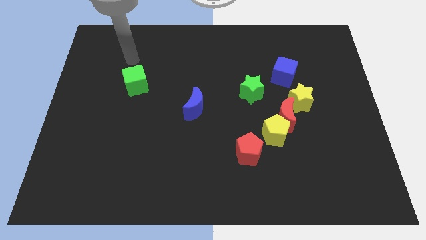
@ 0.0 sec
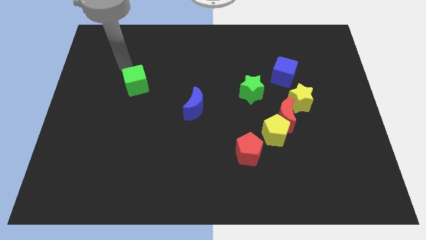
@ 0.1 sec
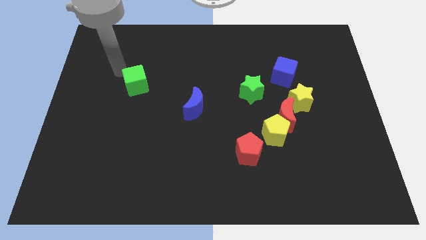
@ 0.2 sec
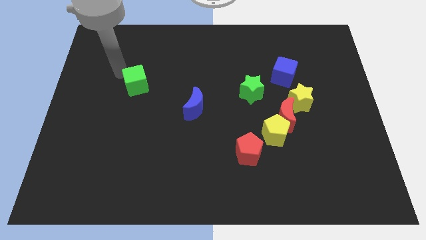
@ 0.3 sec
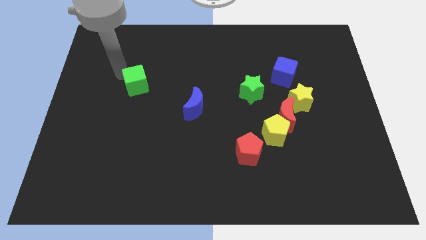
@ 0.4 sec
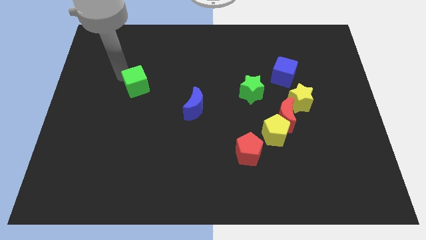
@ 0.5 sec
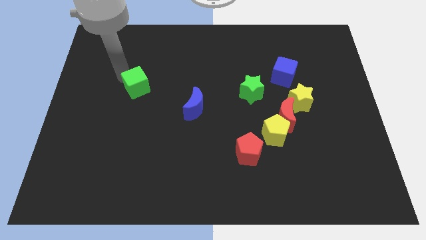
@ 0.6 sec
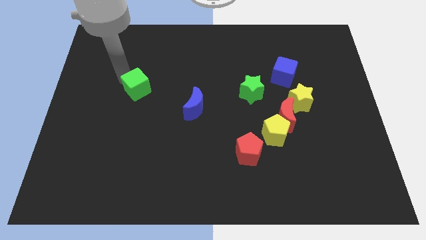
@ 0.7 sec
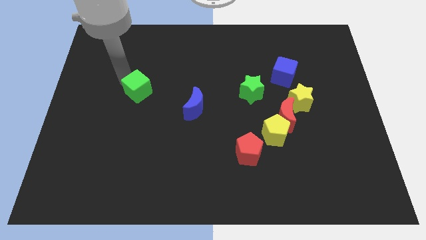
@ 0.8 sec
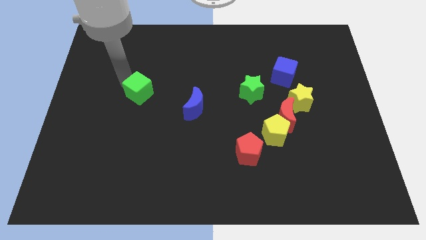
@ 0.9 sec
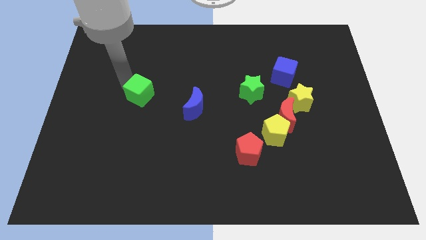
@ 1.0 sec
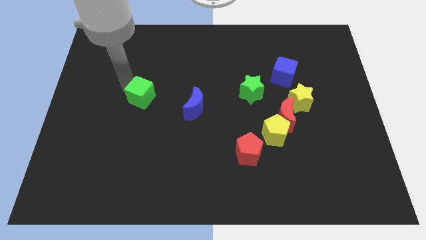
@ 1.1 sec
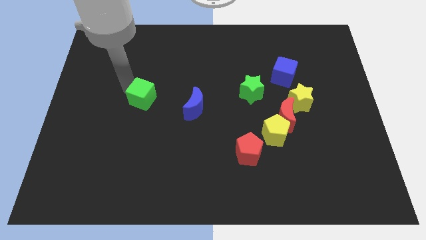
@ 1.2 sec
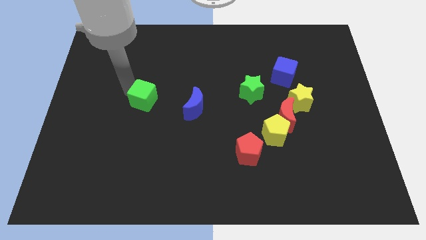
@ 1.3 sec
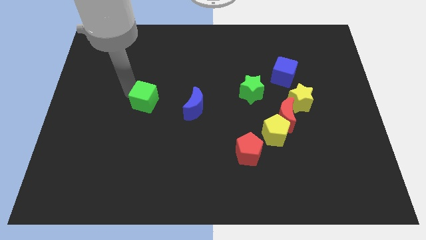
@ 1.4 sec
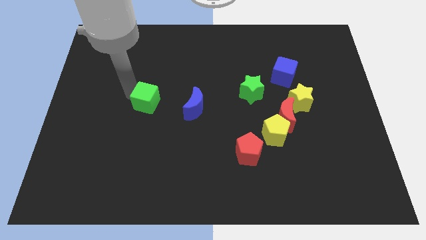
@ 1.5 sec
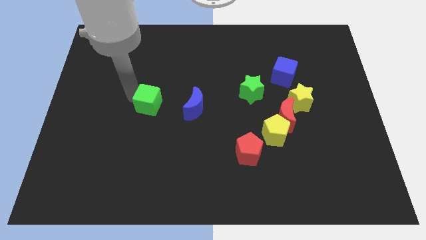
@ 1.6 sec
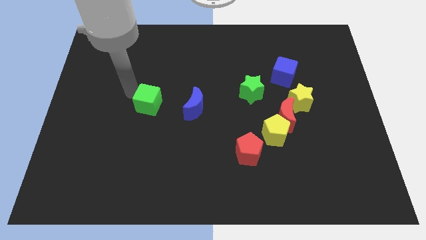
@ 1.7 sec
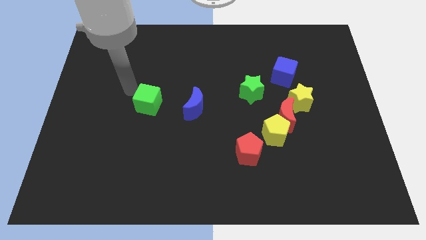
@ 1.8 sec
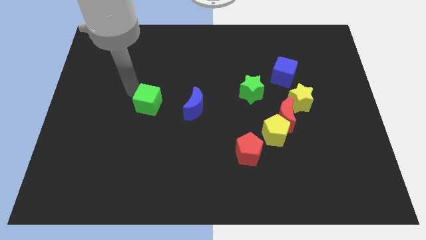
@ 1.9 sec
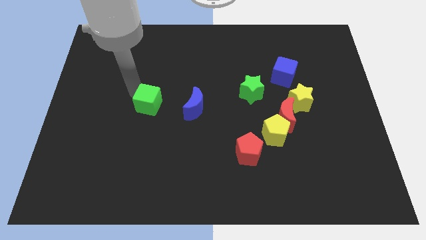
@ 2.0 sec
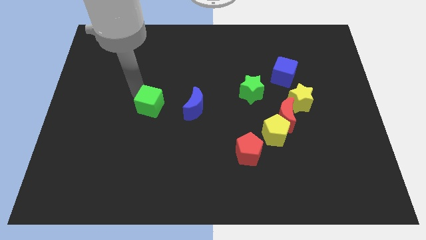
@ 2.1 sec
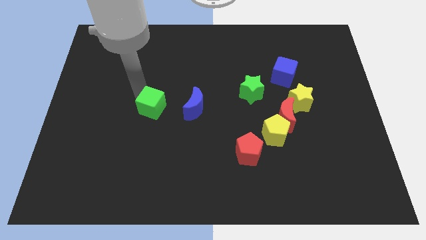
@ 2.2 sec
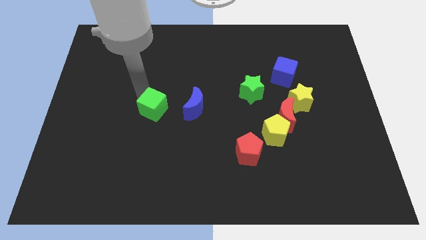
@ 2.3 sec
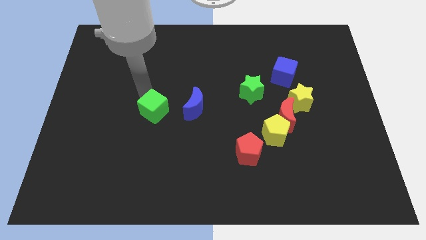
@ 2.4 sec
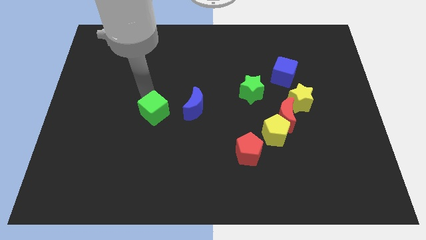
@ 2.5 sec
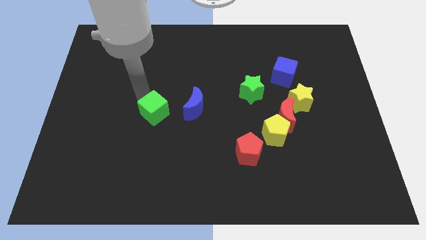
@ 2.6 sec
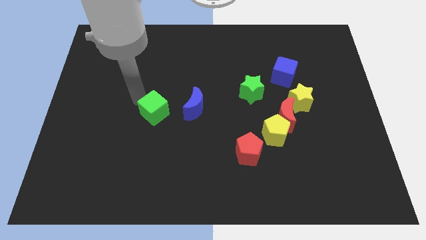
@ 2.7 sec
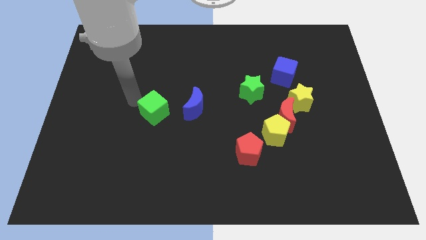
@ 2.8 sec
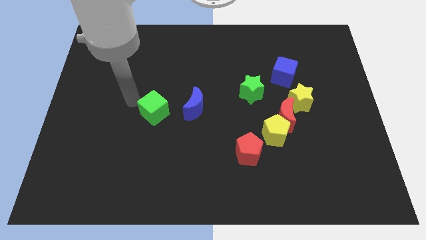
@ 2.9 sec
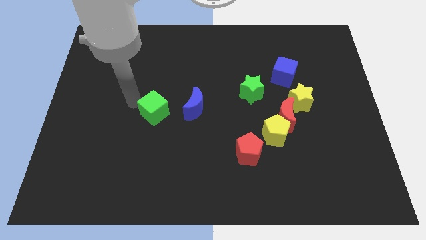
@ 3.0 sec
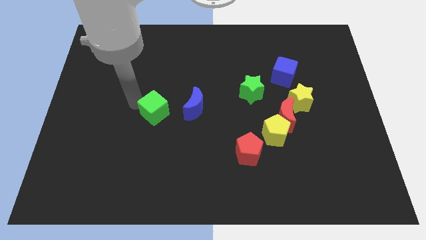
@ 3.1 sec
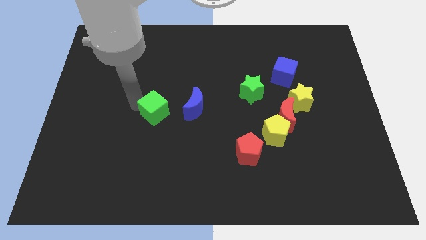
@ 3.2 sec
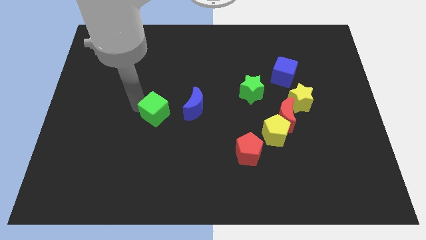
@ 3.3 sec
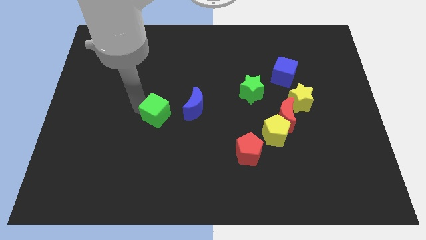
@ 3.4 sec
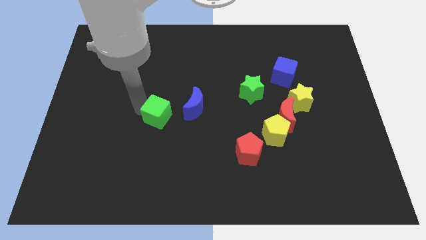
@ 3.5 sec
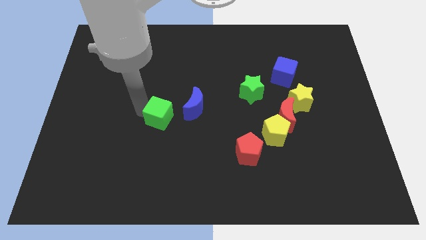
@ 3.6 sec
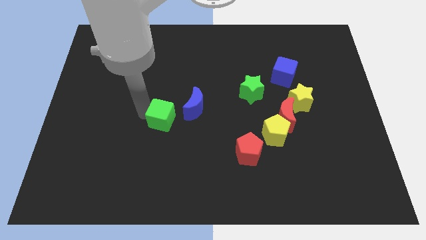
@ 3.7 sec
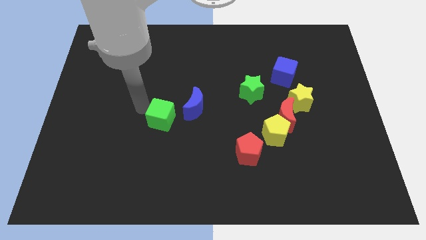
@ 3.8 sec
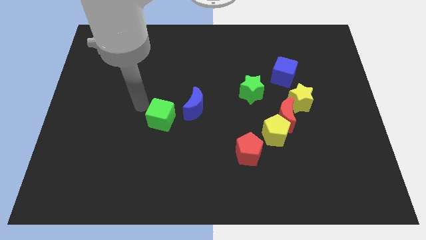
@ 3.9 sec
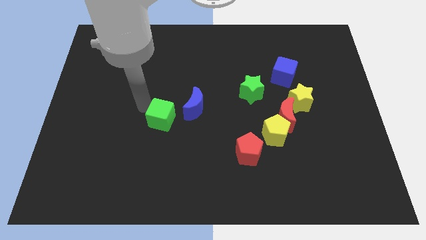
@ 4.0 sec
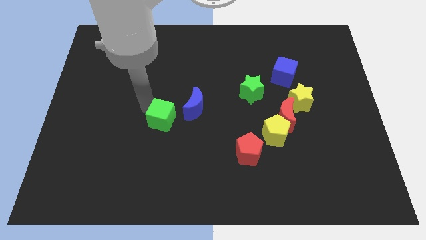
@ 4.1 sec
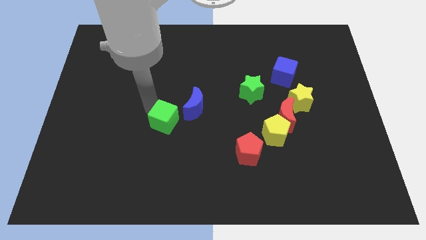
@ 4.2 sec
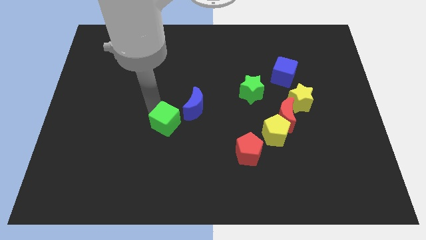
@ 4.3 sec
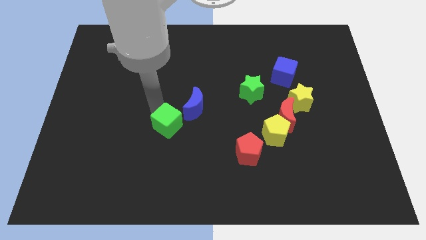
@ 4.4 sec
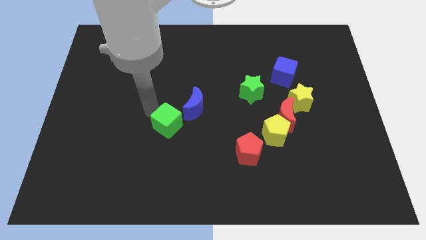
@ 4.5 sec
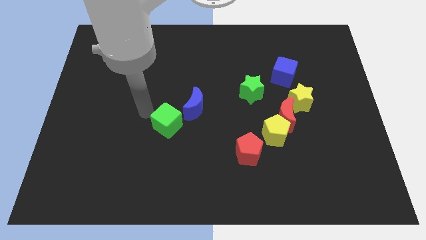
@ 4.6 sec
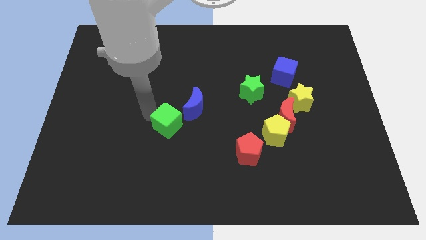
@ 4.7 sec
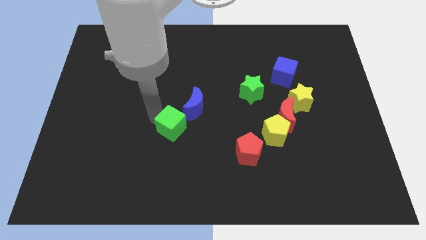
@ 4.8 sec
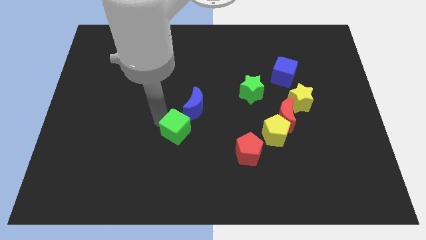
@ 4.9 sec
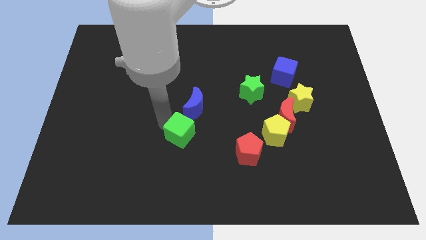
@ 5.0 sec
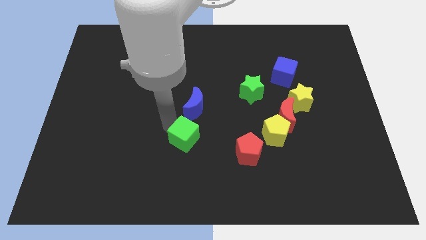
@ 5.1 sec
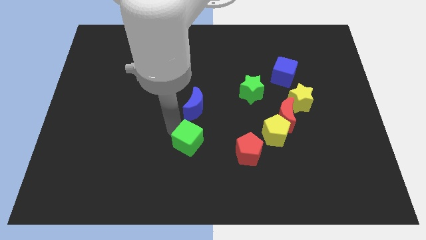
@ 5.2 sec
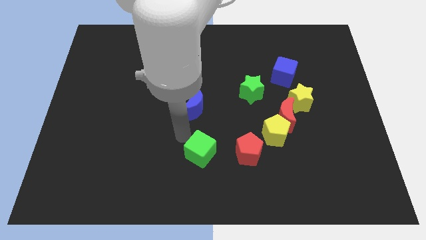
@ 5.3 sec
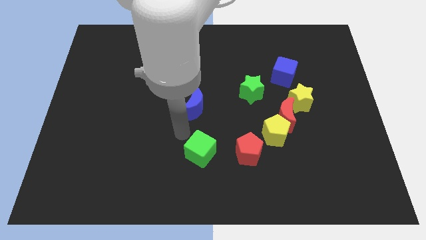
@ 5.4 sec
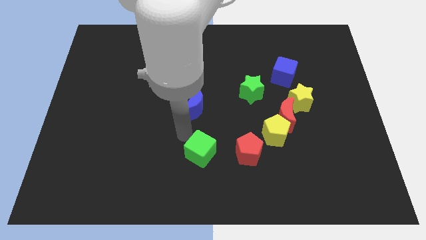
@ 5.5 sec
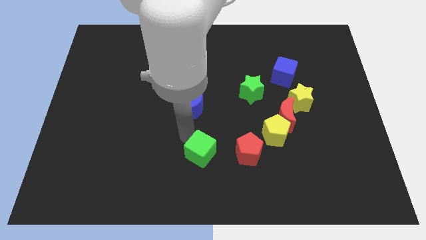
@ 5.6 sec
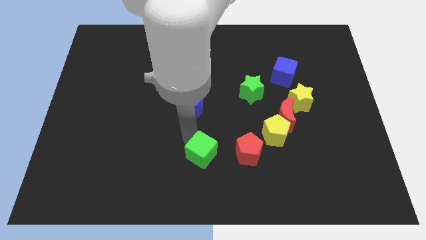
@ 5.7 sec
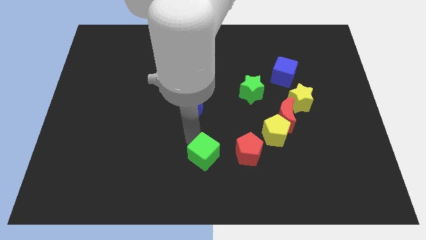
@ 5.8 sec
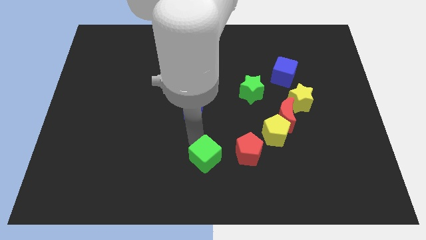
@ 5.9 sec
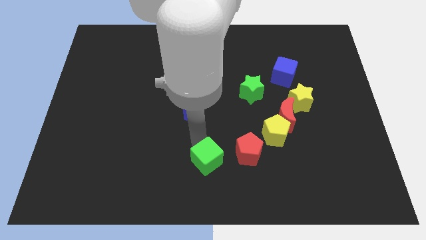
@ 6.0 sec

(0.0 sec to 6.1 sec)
move the green cube to the bottom left of the red pentagon
